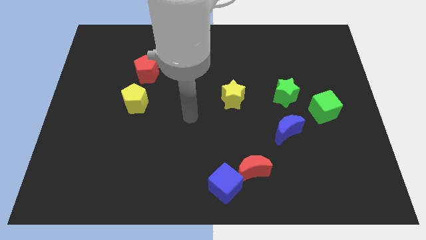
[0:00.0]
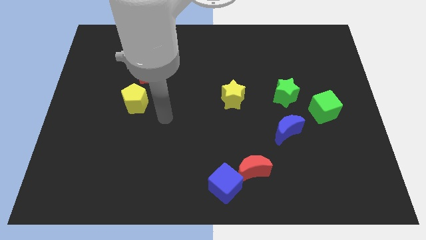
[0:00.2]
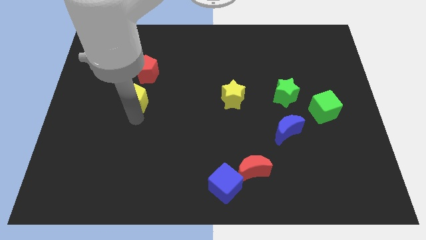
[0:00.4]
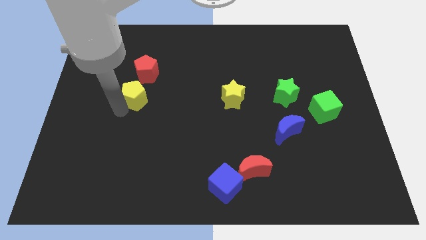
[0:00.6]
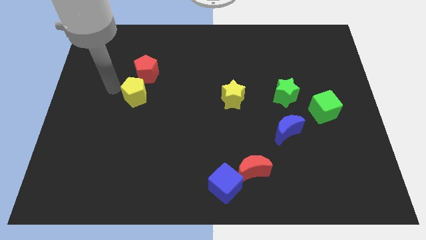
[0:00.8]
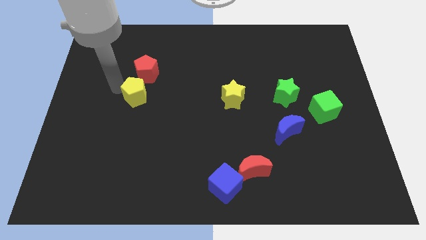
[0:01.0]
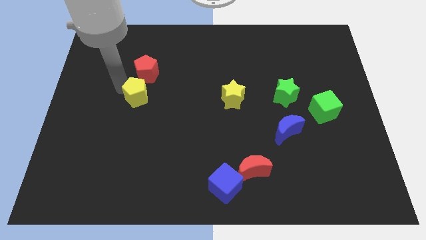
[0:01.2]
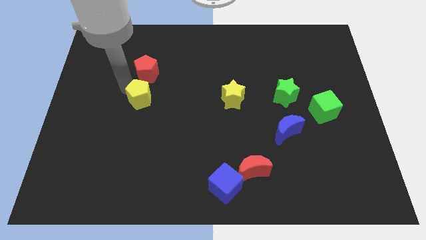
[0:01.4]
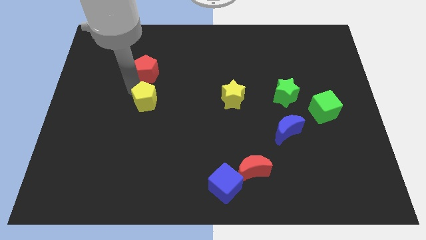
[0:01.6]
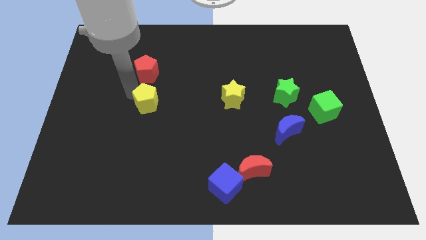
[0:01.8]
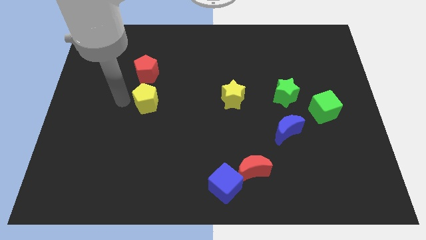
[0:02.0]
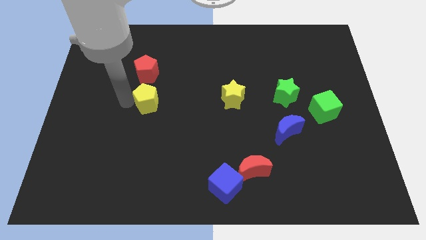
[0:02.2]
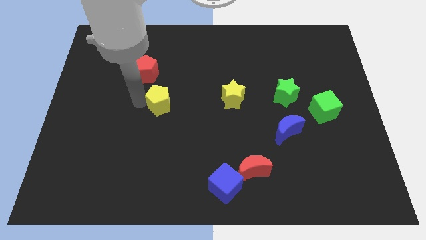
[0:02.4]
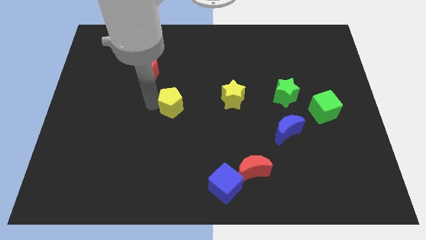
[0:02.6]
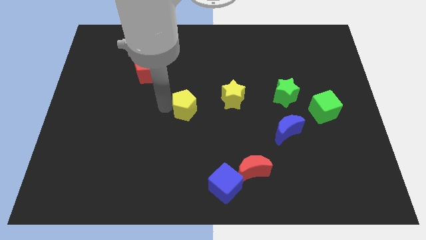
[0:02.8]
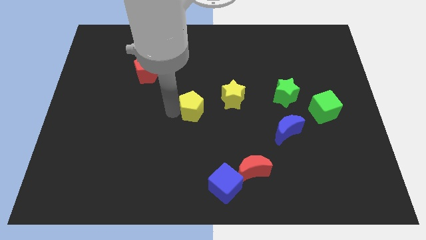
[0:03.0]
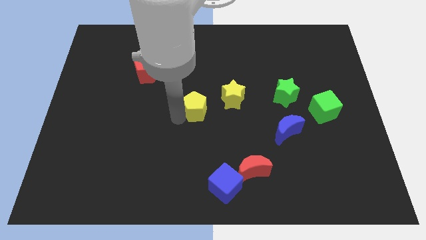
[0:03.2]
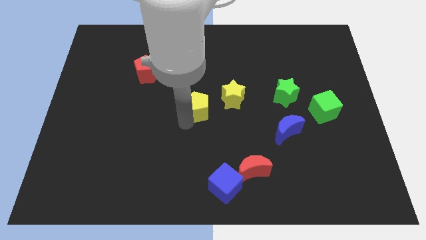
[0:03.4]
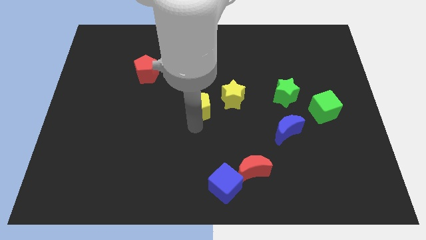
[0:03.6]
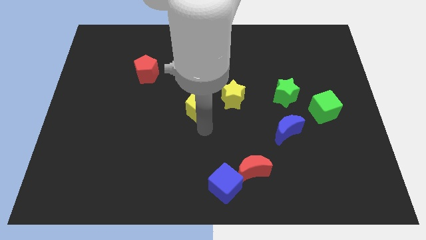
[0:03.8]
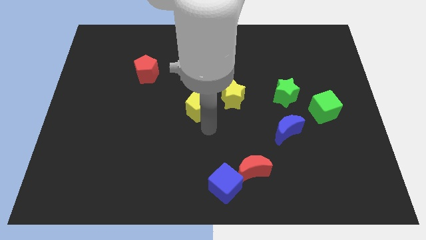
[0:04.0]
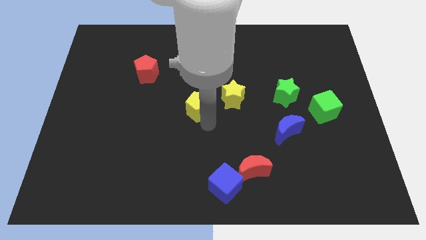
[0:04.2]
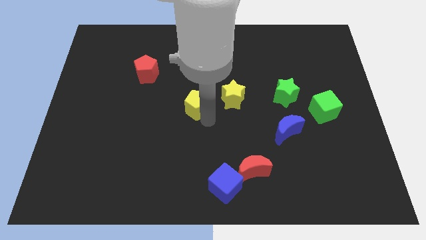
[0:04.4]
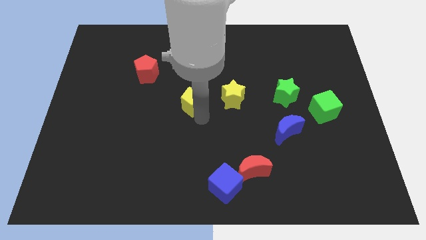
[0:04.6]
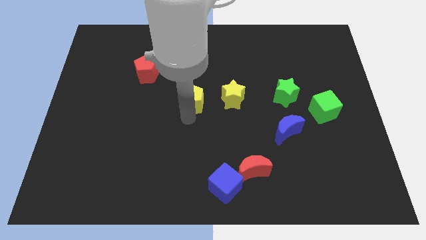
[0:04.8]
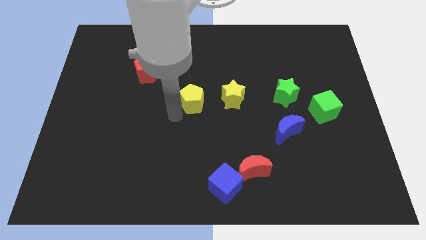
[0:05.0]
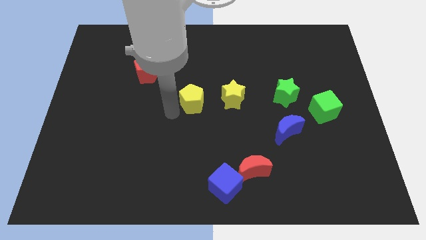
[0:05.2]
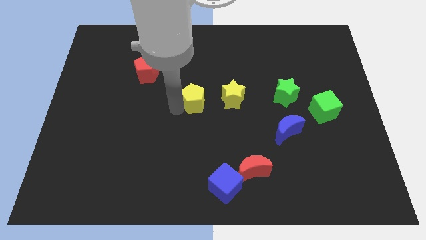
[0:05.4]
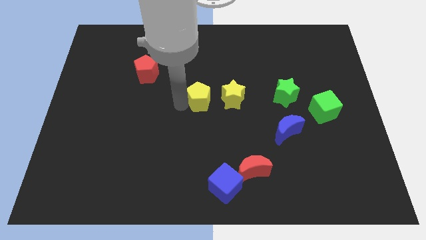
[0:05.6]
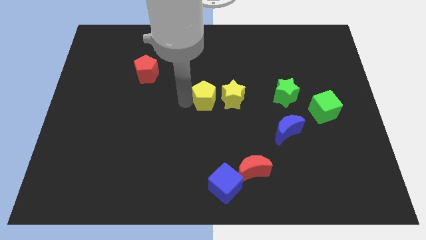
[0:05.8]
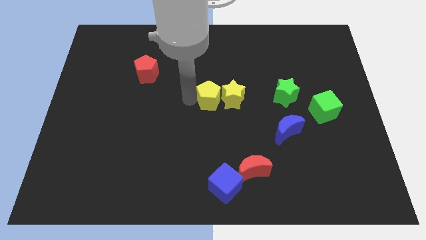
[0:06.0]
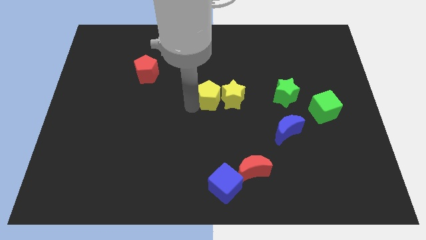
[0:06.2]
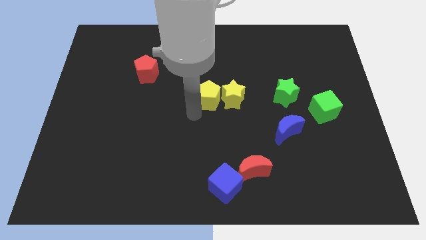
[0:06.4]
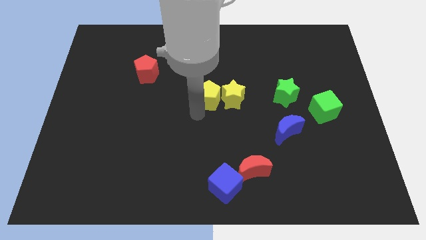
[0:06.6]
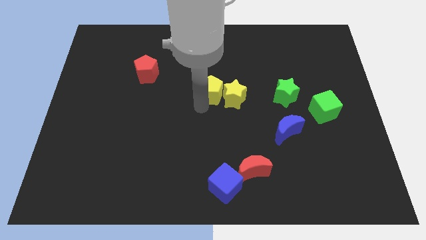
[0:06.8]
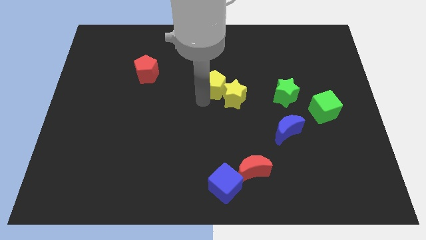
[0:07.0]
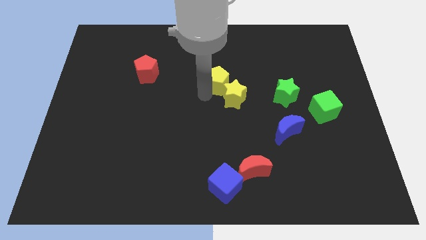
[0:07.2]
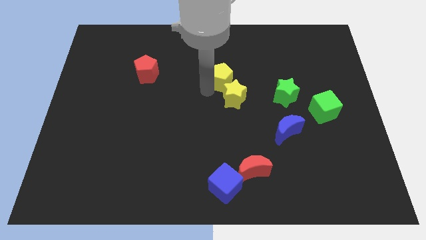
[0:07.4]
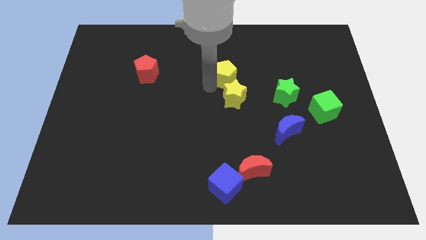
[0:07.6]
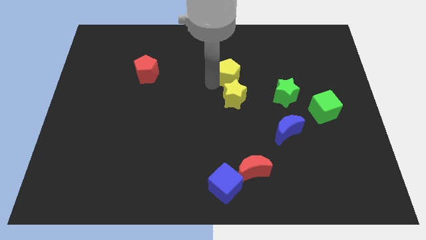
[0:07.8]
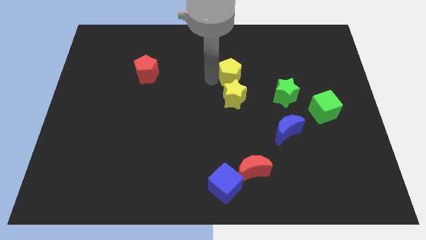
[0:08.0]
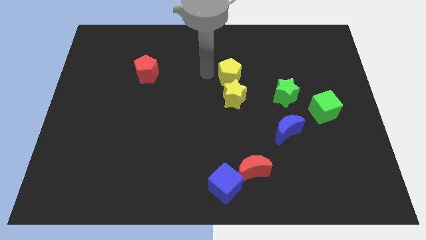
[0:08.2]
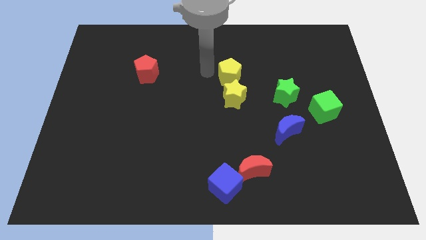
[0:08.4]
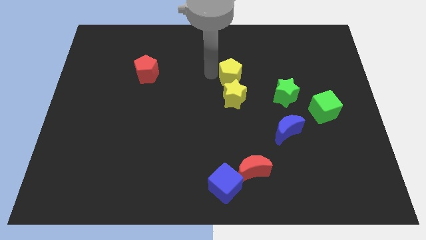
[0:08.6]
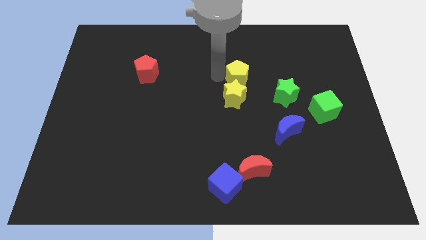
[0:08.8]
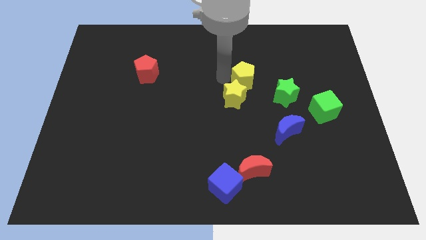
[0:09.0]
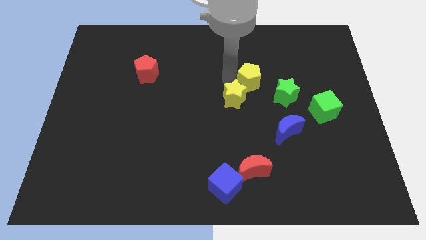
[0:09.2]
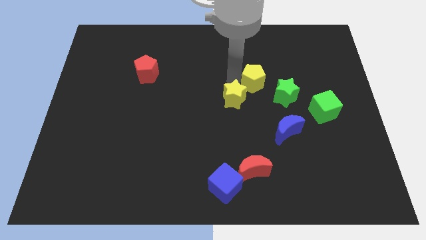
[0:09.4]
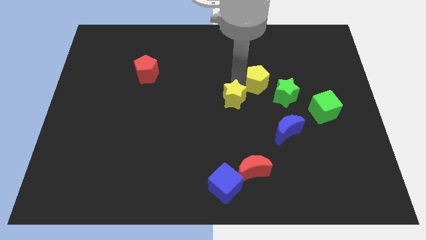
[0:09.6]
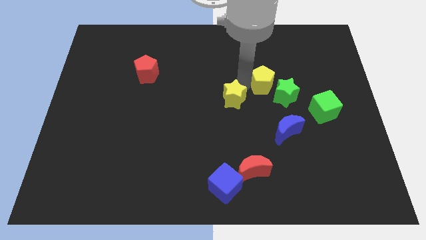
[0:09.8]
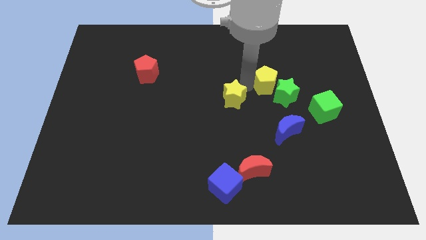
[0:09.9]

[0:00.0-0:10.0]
push the yellow pentagon to the top side of the blue moon

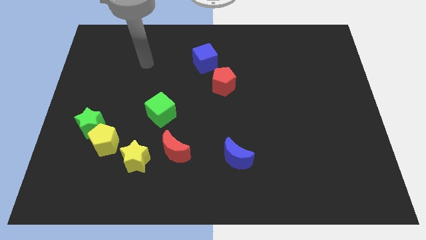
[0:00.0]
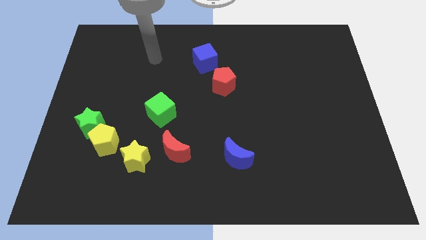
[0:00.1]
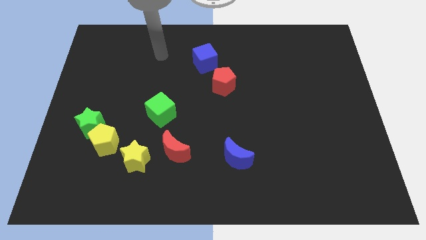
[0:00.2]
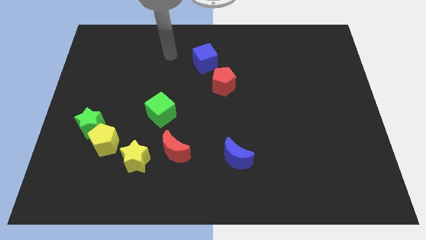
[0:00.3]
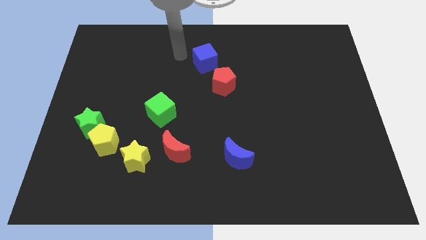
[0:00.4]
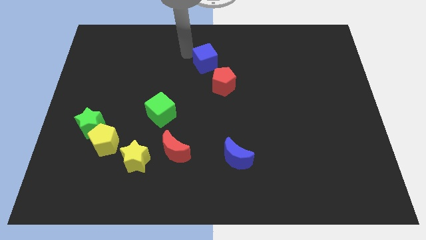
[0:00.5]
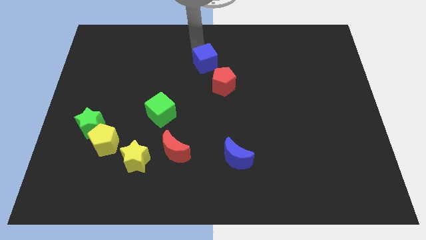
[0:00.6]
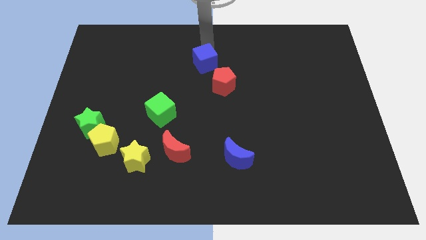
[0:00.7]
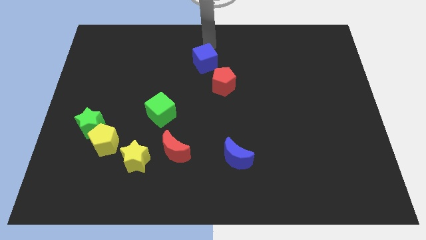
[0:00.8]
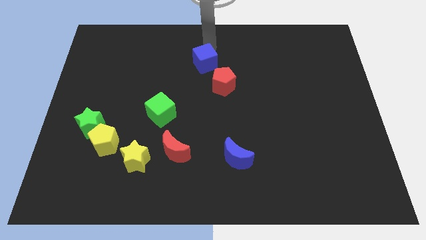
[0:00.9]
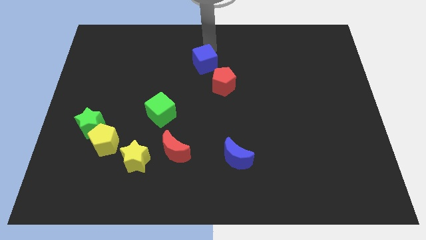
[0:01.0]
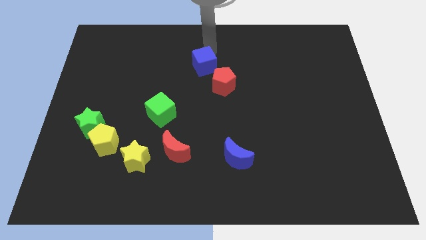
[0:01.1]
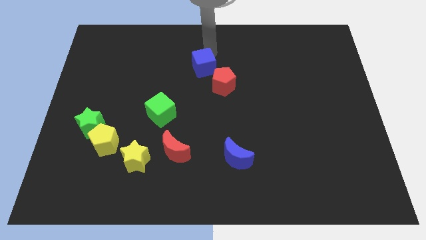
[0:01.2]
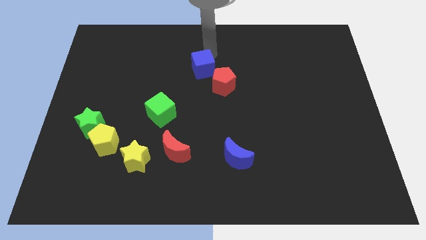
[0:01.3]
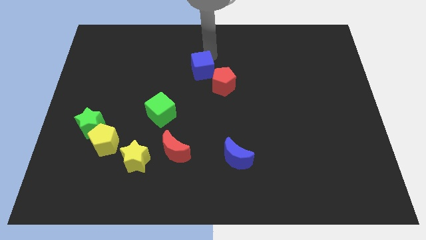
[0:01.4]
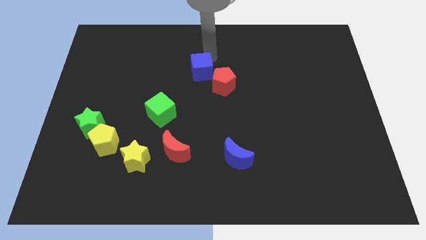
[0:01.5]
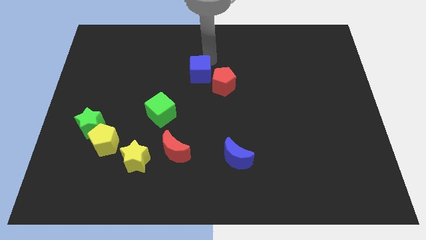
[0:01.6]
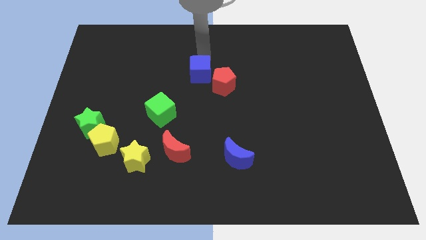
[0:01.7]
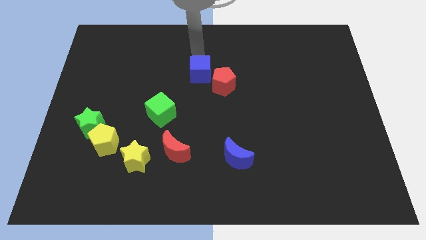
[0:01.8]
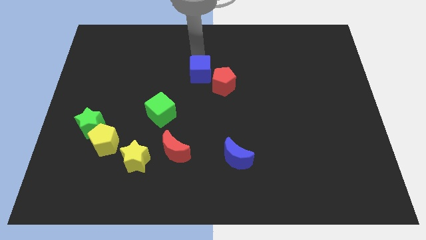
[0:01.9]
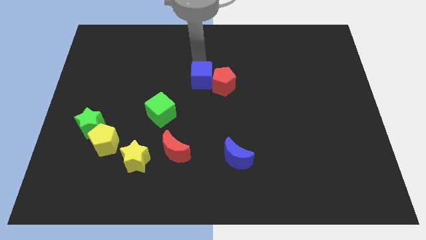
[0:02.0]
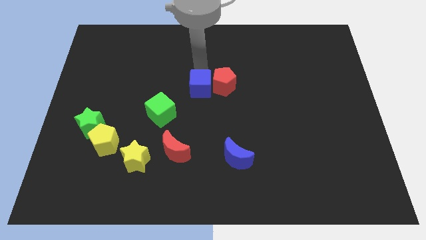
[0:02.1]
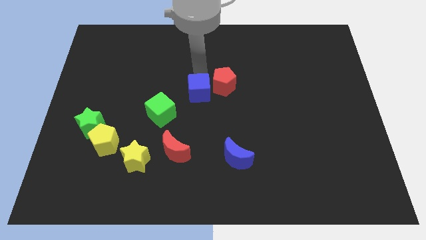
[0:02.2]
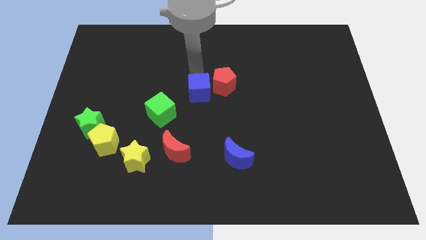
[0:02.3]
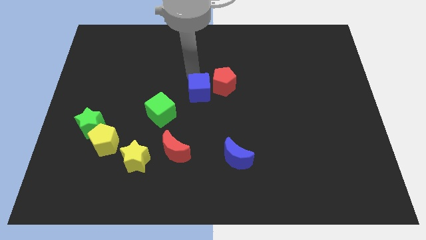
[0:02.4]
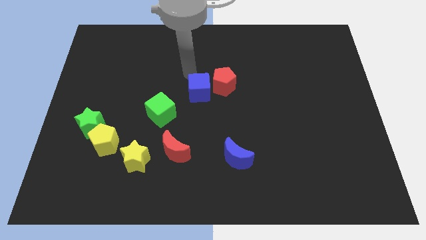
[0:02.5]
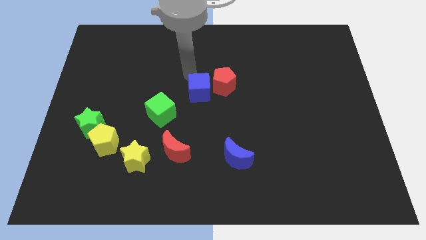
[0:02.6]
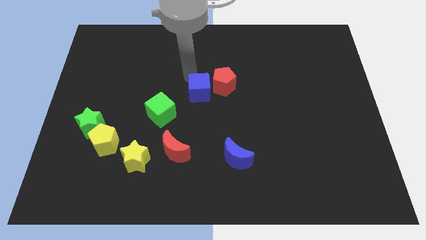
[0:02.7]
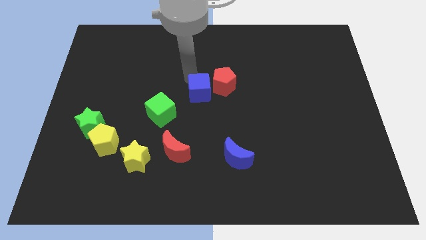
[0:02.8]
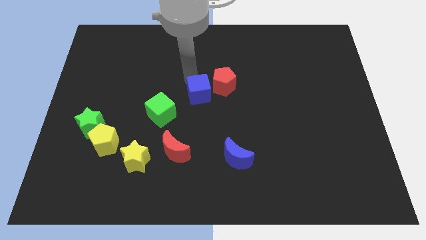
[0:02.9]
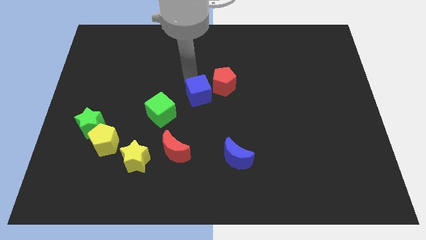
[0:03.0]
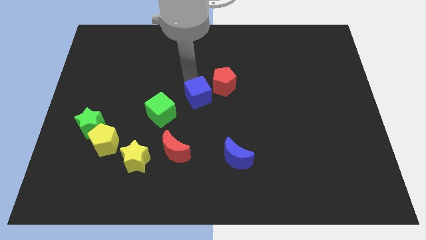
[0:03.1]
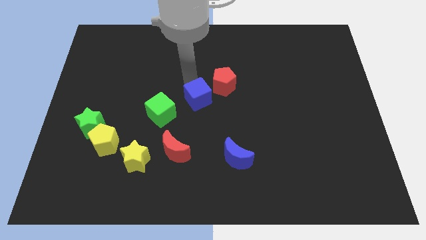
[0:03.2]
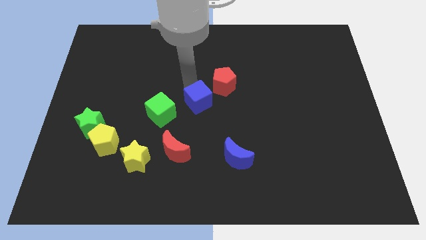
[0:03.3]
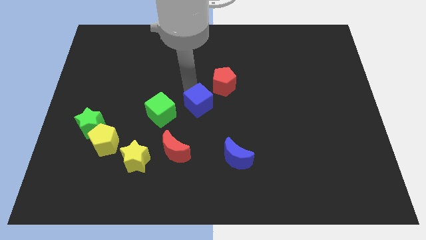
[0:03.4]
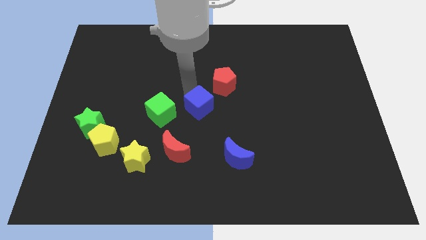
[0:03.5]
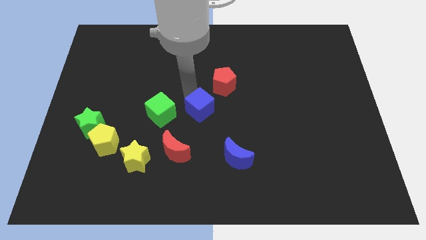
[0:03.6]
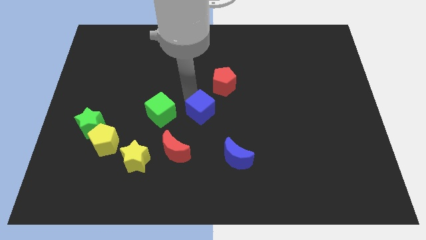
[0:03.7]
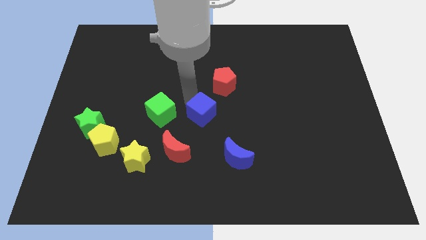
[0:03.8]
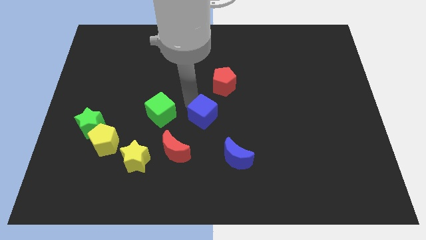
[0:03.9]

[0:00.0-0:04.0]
push the blue cube to the bottom side of the red pentagon
